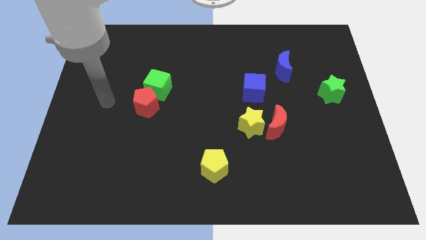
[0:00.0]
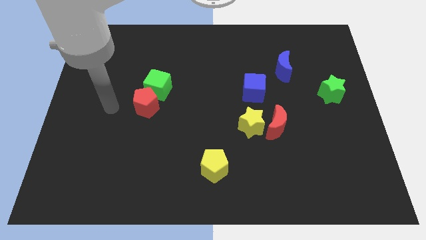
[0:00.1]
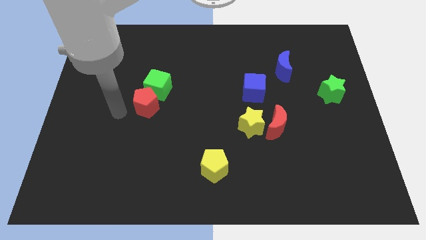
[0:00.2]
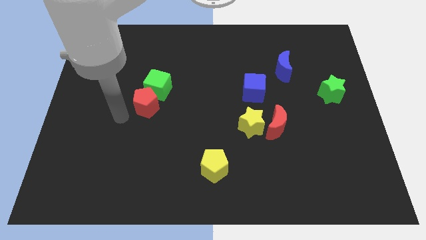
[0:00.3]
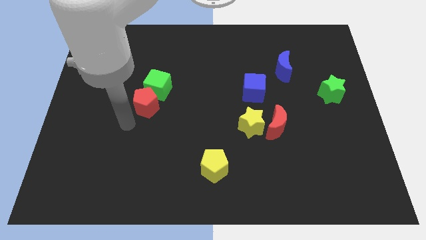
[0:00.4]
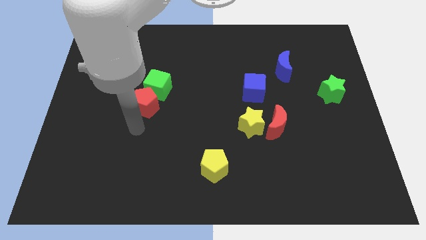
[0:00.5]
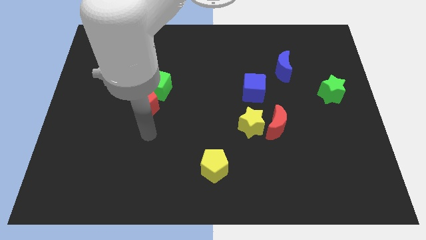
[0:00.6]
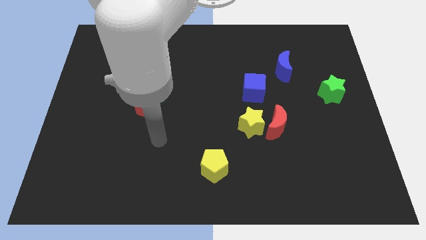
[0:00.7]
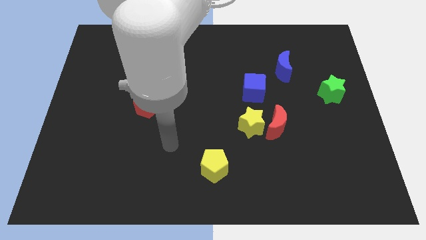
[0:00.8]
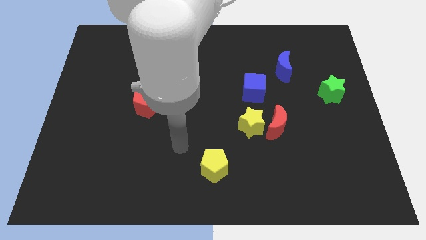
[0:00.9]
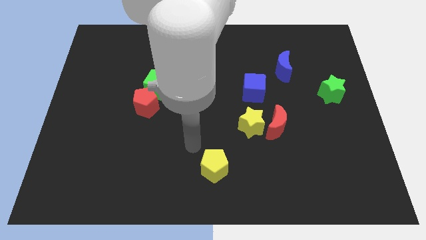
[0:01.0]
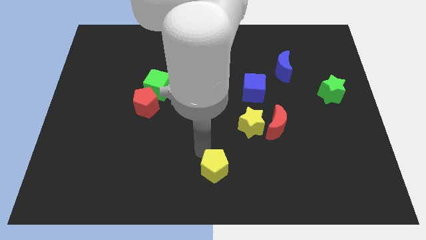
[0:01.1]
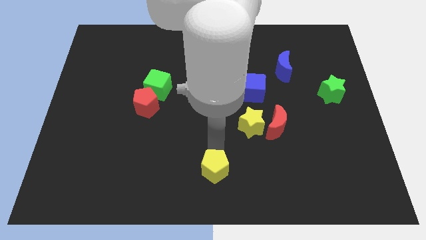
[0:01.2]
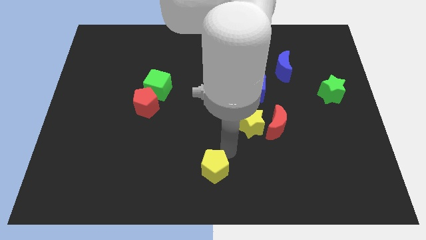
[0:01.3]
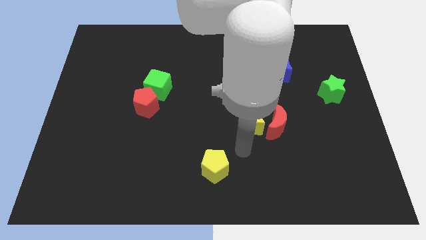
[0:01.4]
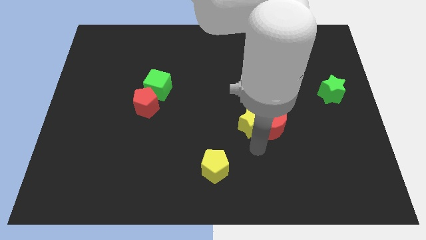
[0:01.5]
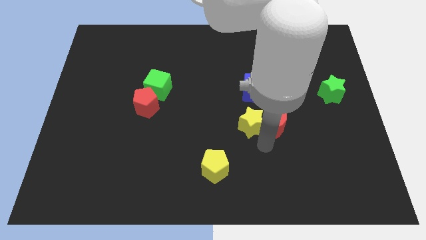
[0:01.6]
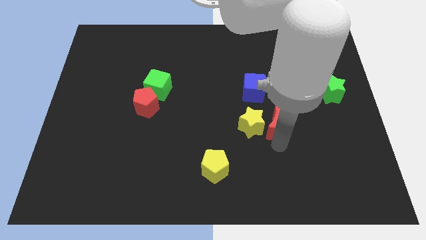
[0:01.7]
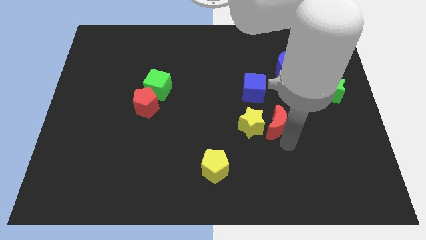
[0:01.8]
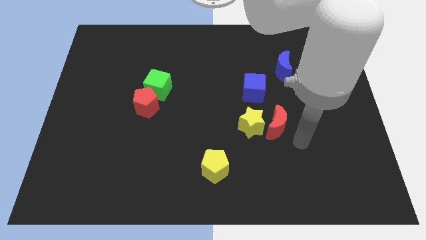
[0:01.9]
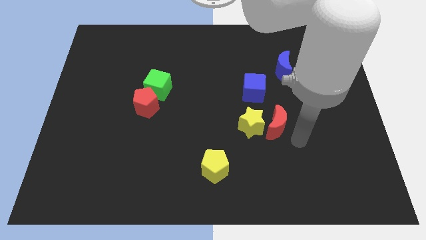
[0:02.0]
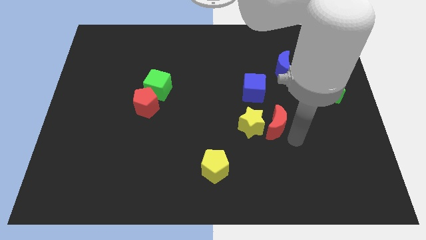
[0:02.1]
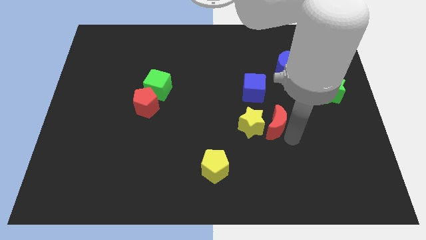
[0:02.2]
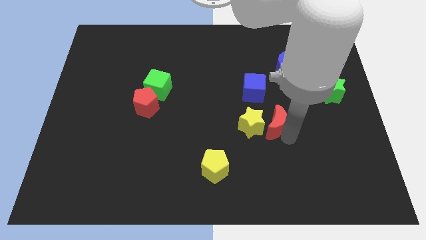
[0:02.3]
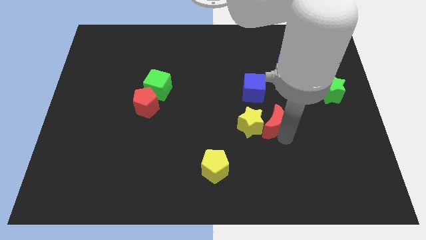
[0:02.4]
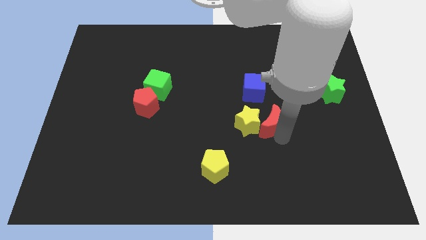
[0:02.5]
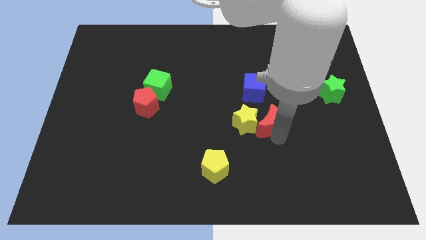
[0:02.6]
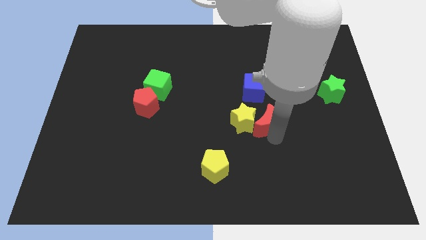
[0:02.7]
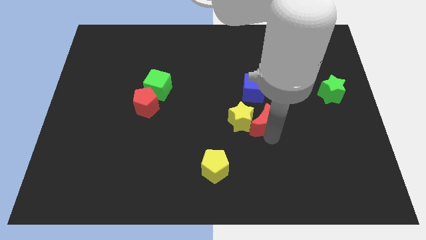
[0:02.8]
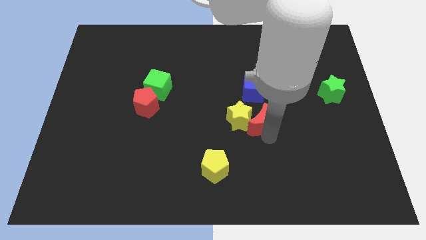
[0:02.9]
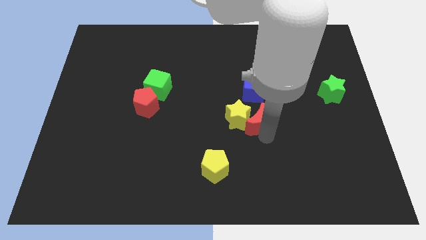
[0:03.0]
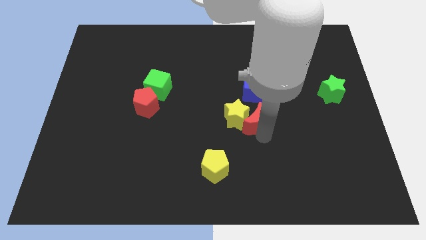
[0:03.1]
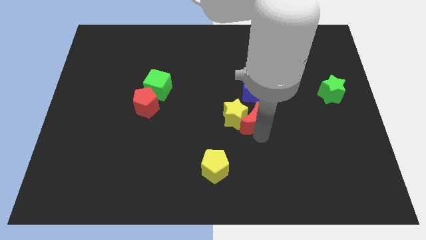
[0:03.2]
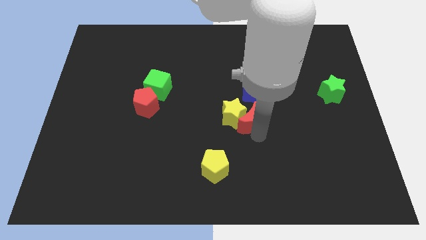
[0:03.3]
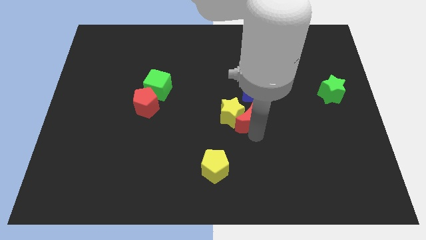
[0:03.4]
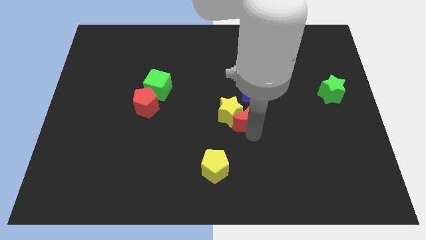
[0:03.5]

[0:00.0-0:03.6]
move the red moon to the left somewhat

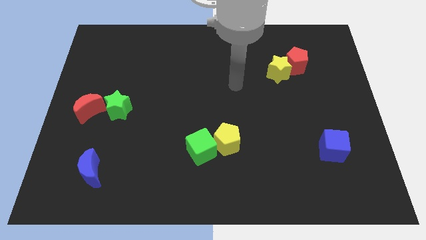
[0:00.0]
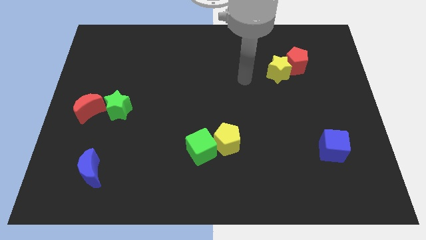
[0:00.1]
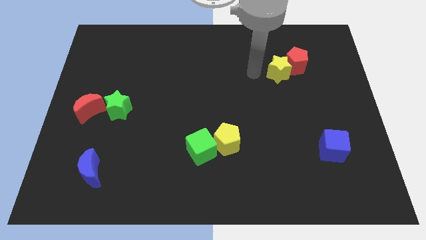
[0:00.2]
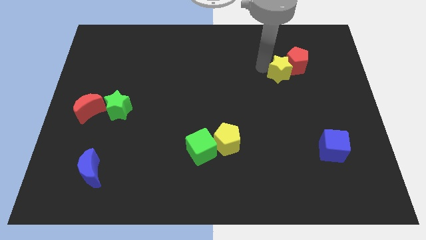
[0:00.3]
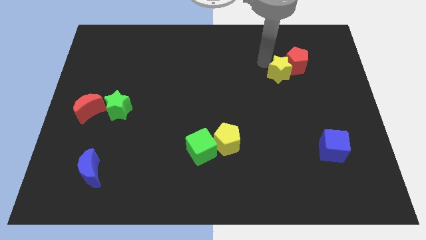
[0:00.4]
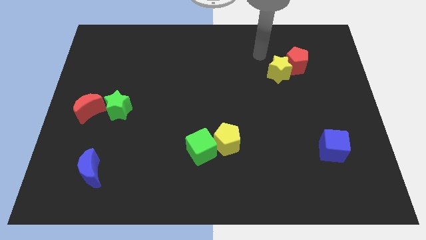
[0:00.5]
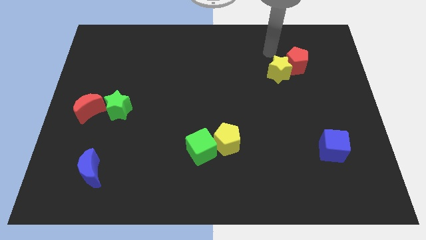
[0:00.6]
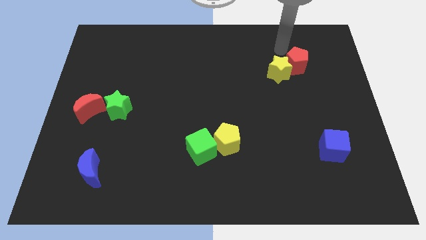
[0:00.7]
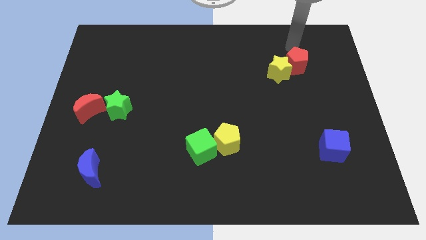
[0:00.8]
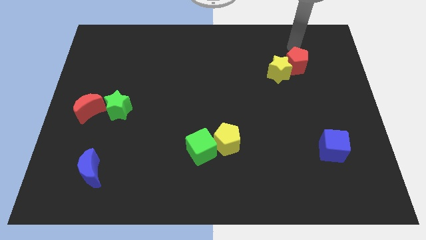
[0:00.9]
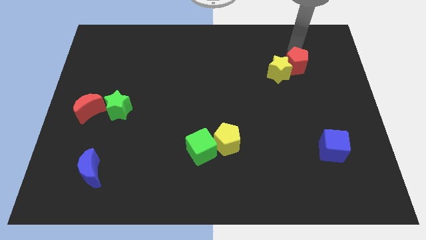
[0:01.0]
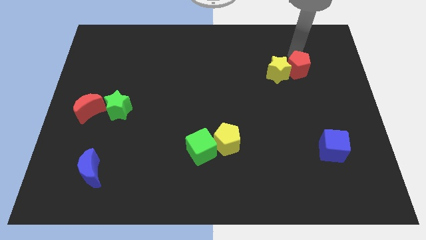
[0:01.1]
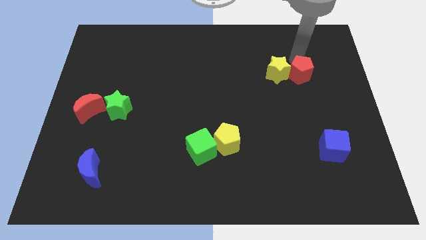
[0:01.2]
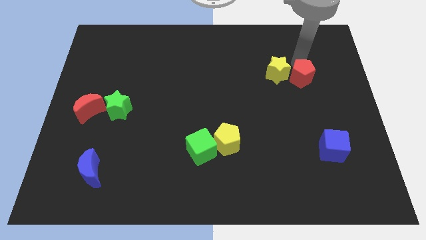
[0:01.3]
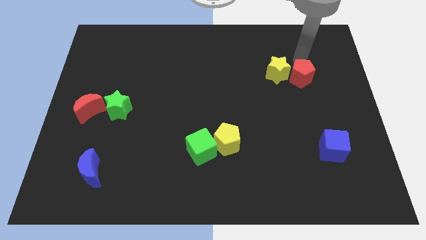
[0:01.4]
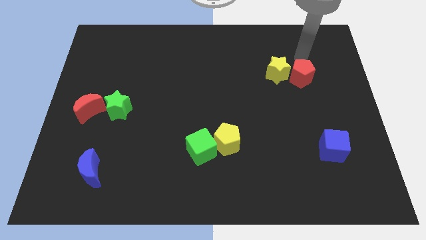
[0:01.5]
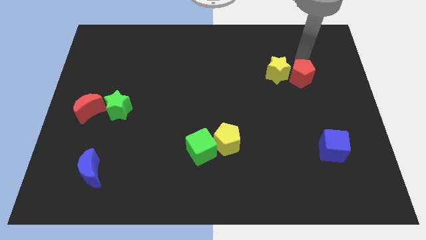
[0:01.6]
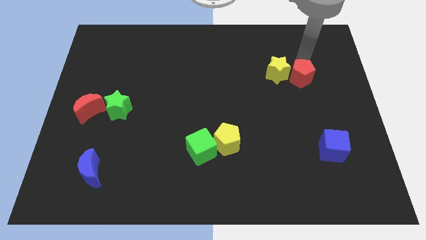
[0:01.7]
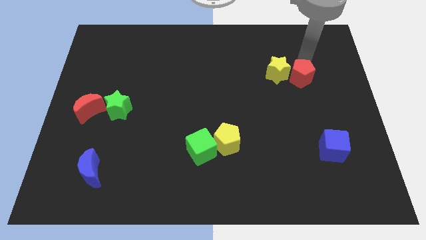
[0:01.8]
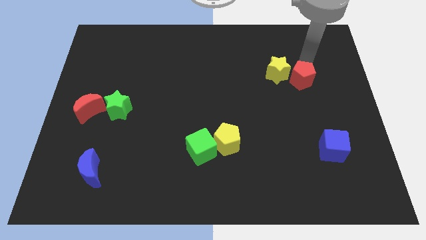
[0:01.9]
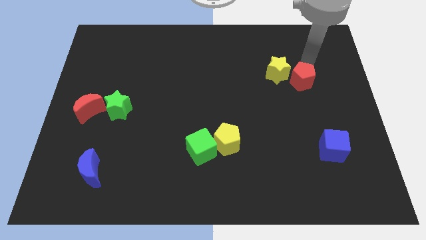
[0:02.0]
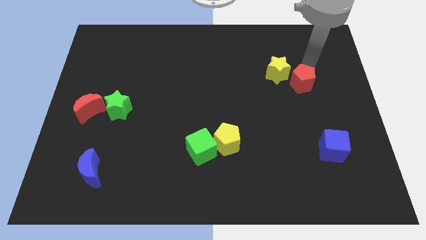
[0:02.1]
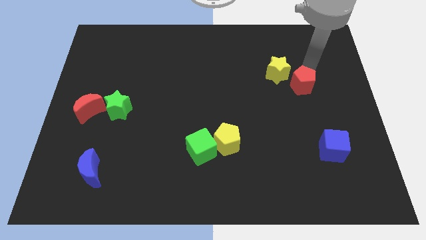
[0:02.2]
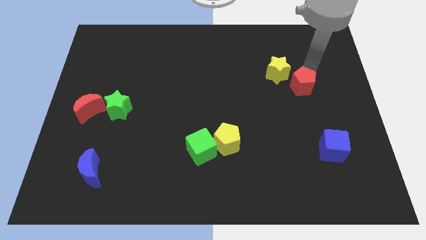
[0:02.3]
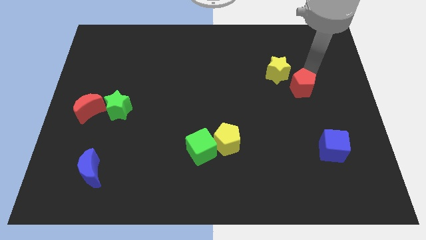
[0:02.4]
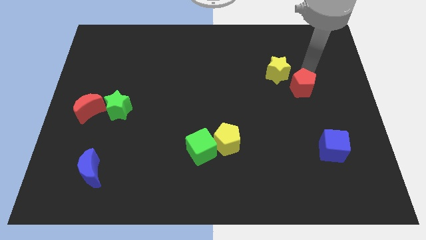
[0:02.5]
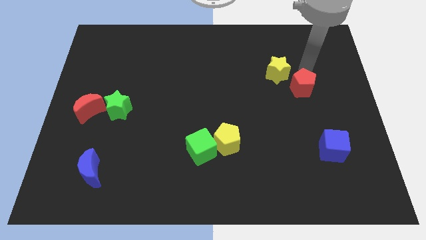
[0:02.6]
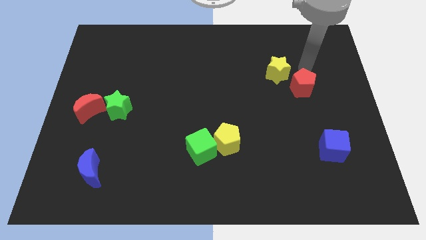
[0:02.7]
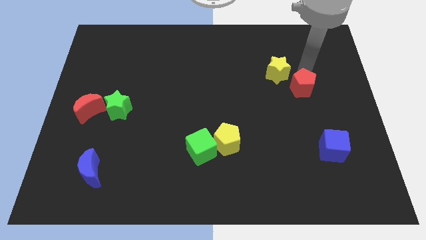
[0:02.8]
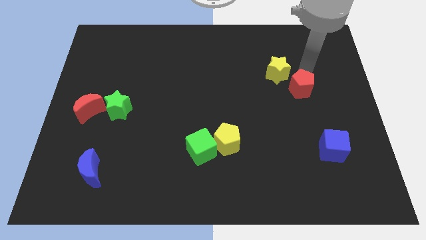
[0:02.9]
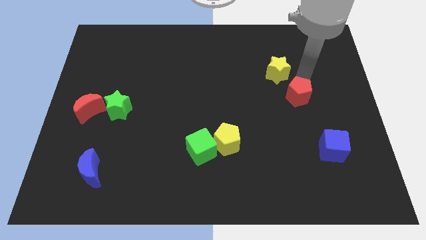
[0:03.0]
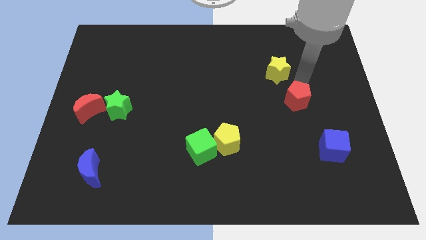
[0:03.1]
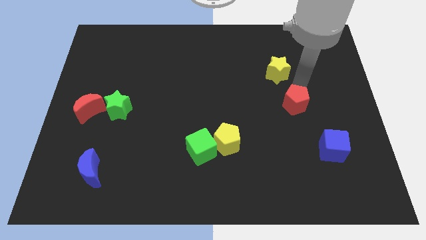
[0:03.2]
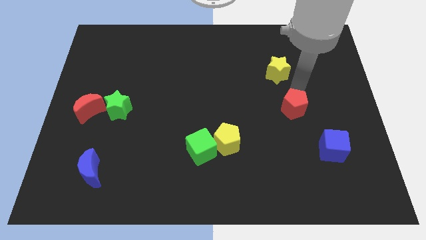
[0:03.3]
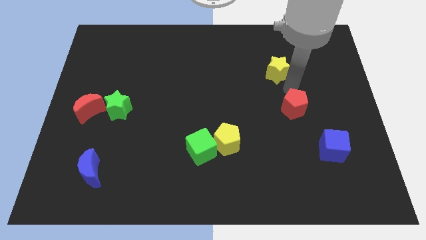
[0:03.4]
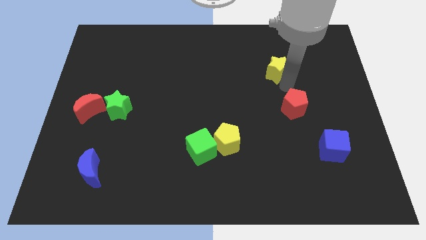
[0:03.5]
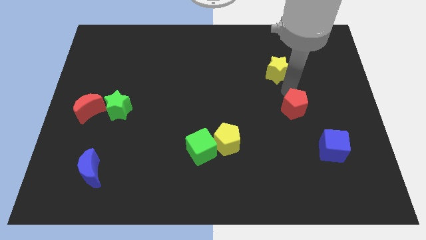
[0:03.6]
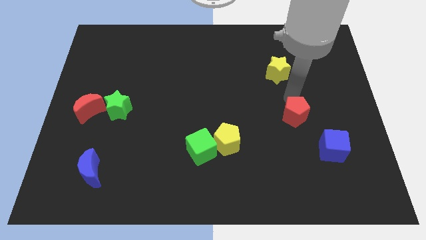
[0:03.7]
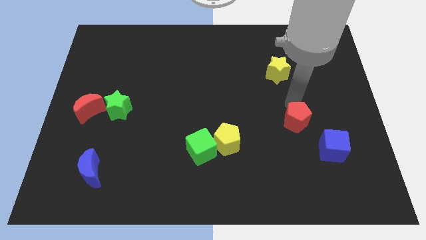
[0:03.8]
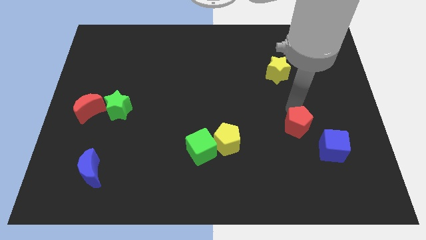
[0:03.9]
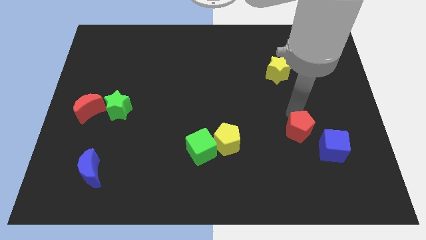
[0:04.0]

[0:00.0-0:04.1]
slide the red pentagon down

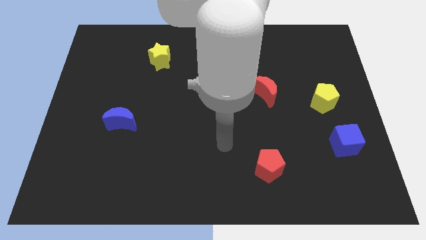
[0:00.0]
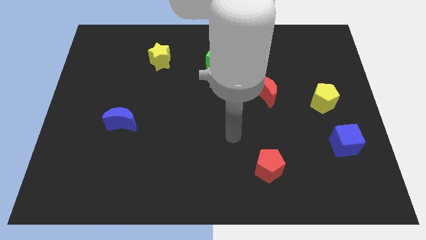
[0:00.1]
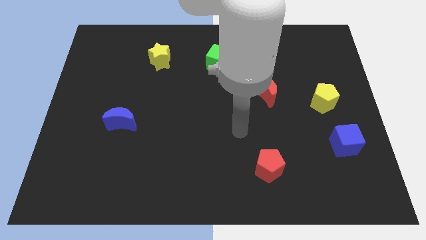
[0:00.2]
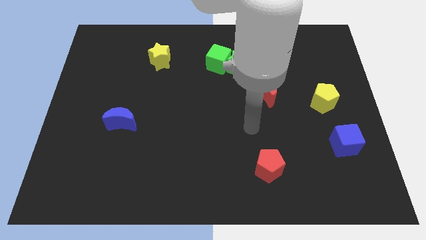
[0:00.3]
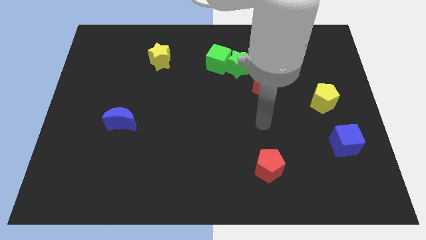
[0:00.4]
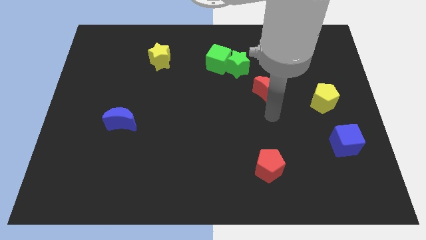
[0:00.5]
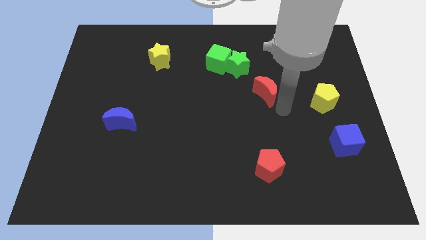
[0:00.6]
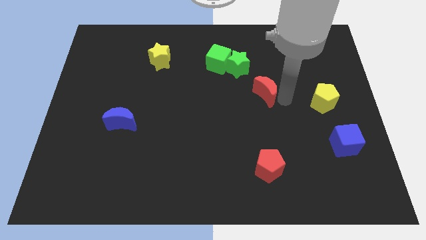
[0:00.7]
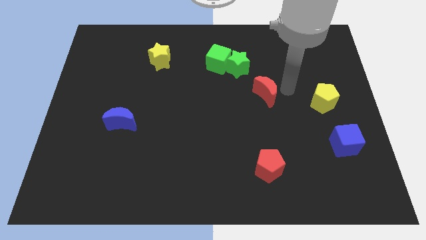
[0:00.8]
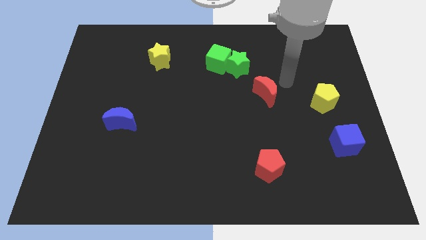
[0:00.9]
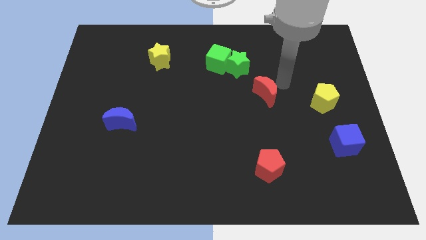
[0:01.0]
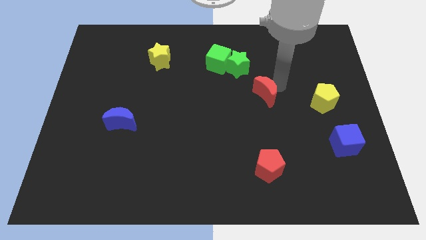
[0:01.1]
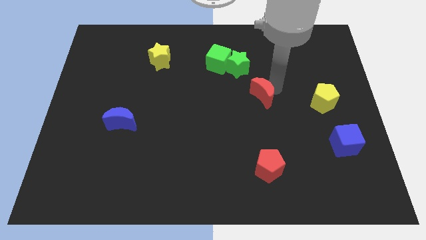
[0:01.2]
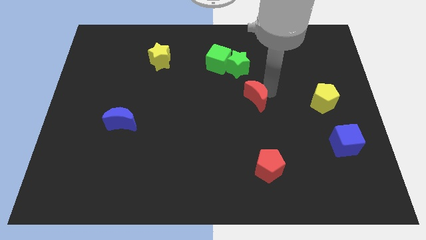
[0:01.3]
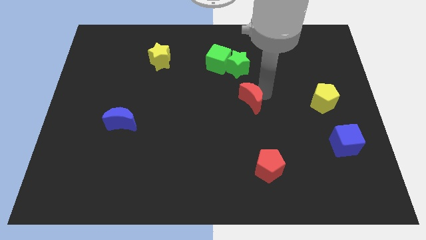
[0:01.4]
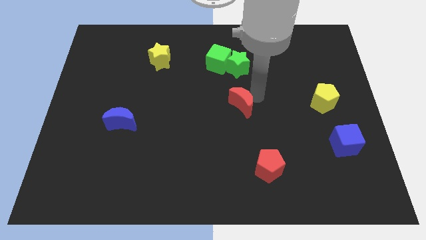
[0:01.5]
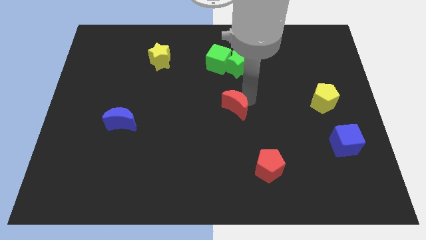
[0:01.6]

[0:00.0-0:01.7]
push the red moon down and then to the left a little
